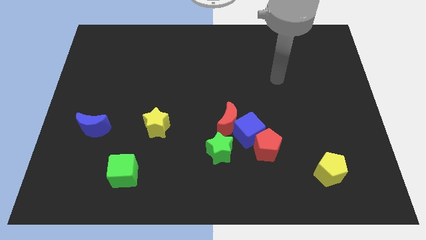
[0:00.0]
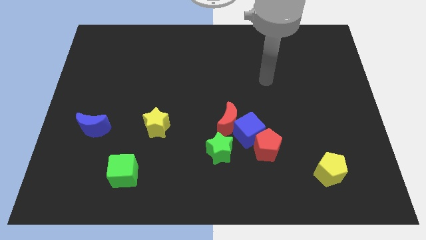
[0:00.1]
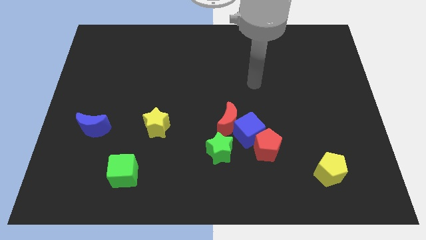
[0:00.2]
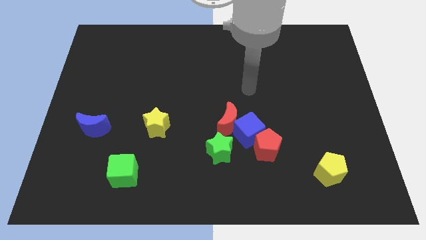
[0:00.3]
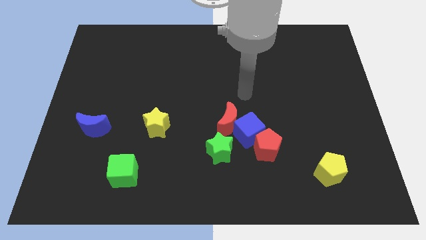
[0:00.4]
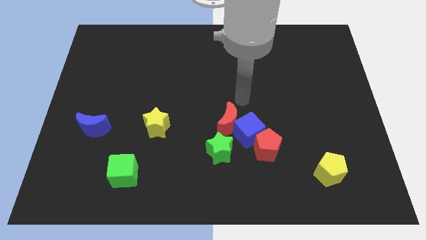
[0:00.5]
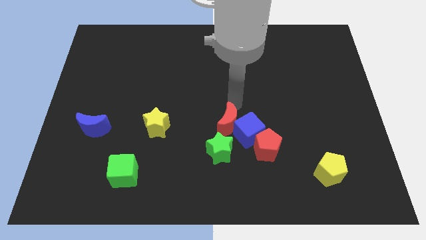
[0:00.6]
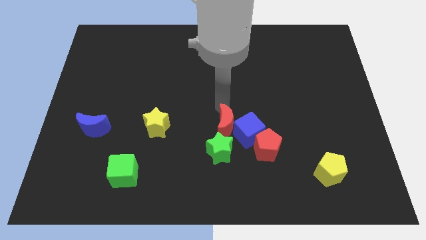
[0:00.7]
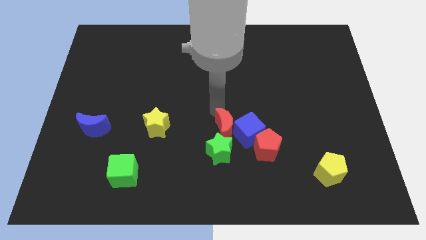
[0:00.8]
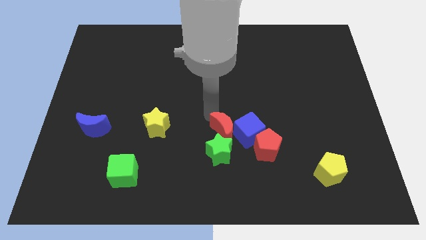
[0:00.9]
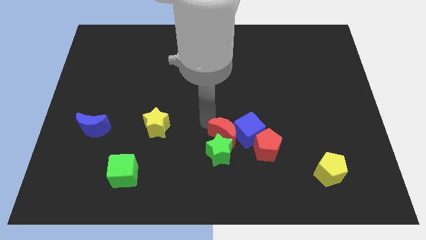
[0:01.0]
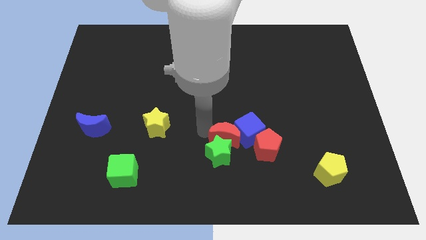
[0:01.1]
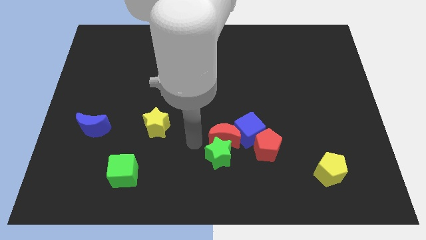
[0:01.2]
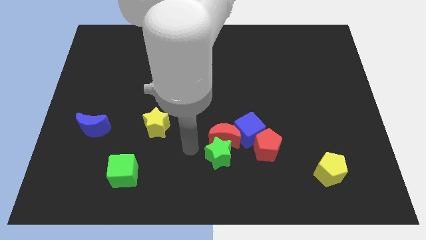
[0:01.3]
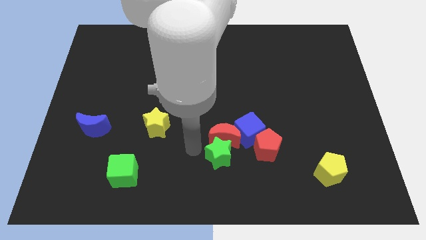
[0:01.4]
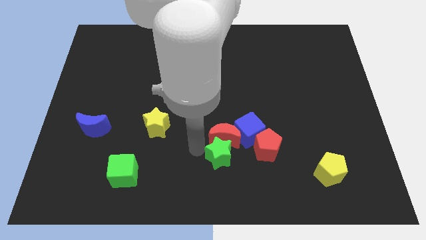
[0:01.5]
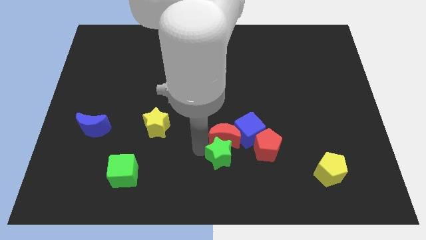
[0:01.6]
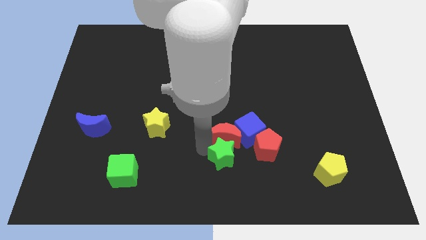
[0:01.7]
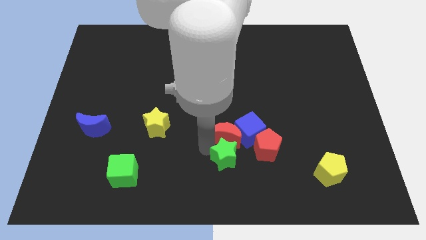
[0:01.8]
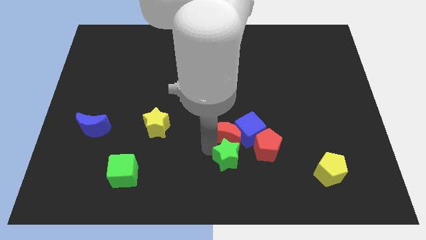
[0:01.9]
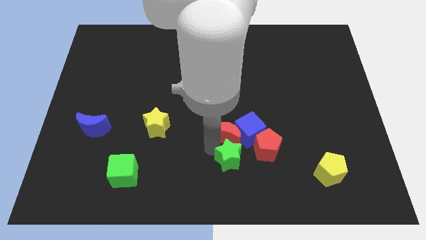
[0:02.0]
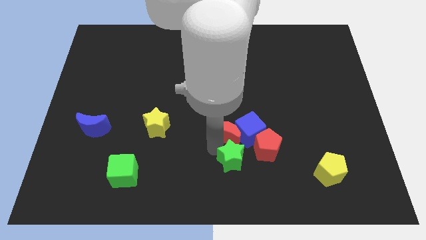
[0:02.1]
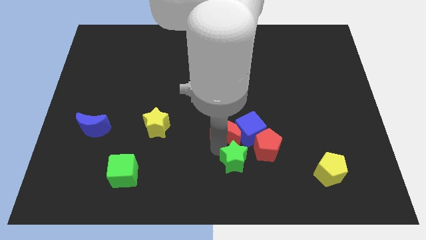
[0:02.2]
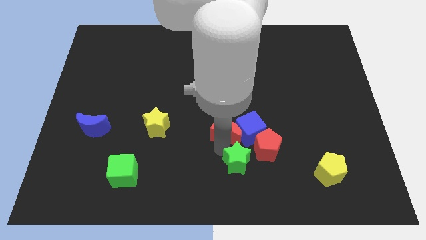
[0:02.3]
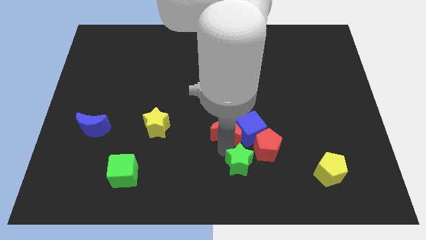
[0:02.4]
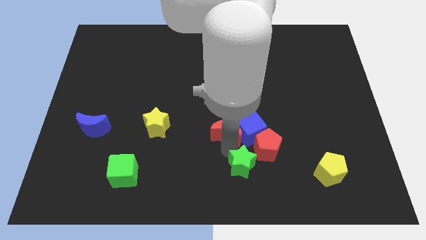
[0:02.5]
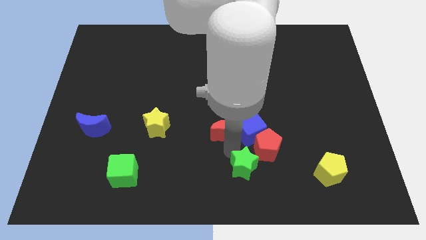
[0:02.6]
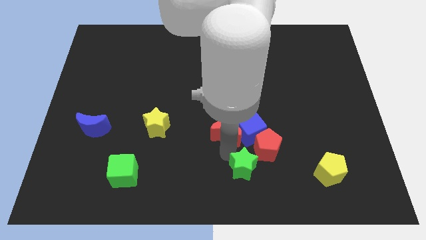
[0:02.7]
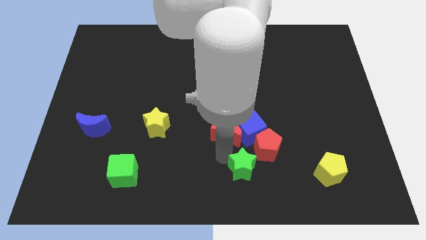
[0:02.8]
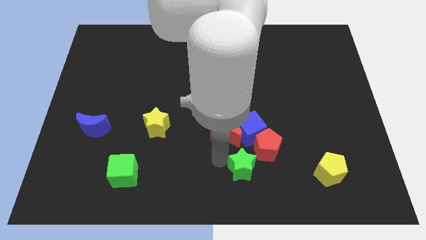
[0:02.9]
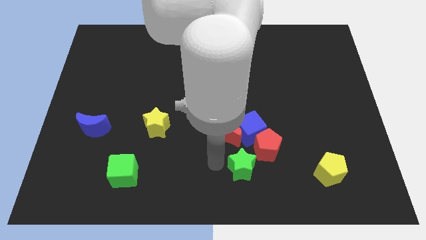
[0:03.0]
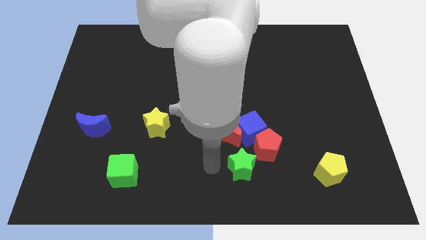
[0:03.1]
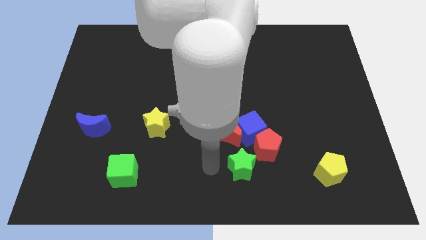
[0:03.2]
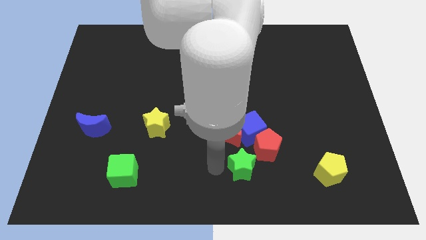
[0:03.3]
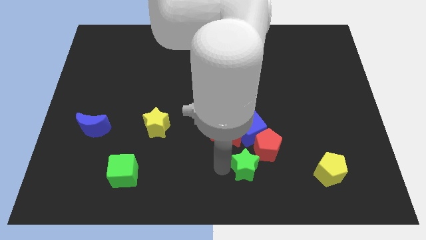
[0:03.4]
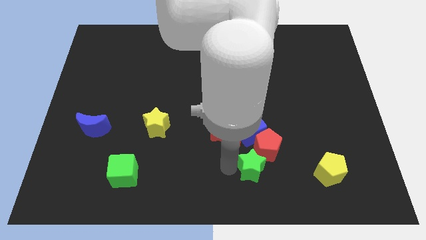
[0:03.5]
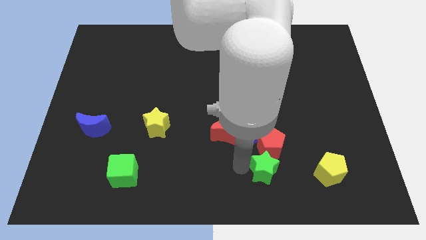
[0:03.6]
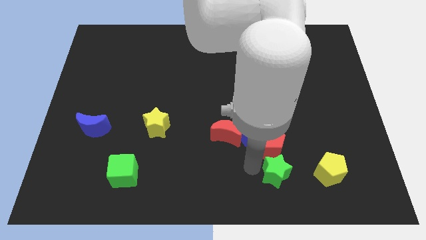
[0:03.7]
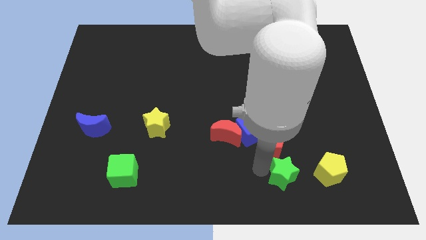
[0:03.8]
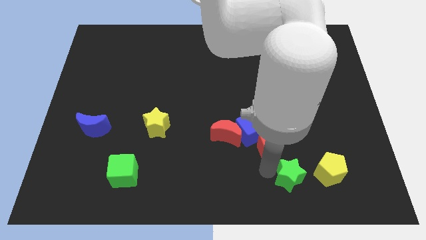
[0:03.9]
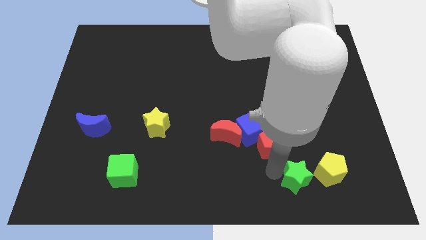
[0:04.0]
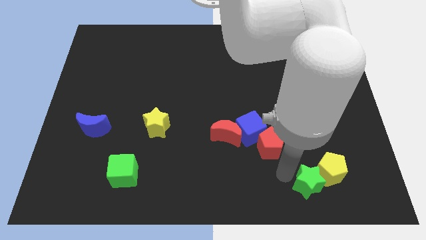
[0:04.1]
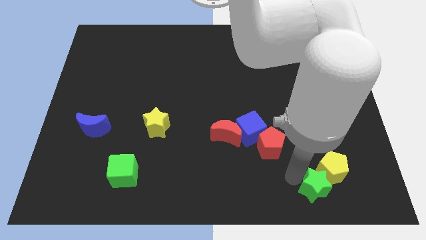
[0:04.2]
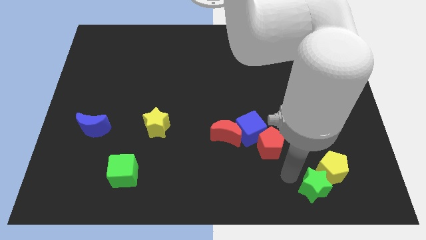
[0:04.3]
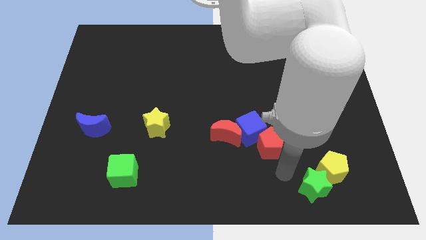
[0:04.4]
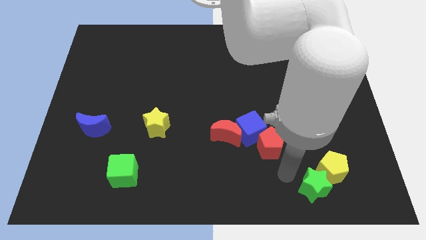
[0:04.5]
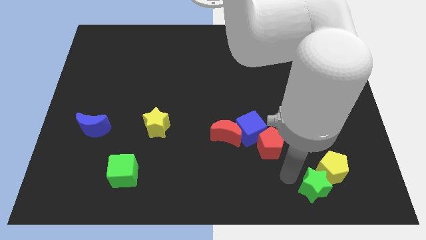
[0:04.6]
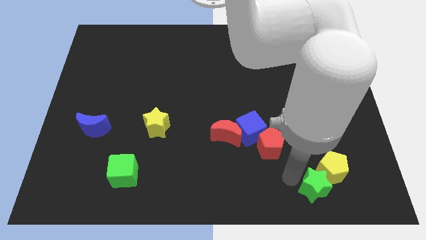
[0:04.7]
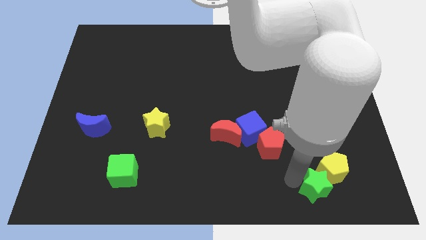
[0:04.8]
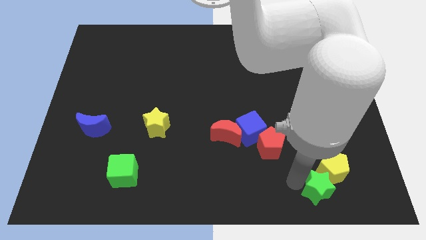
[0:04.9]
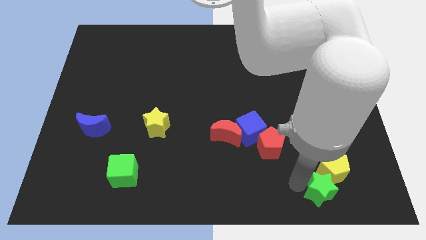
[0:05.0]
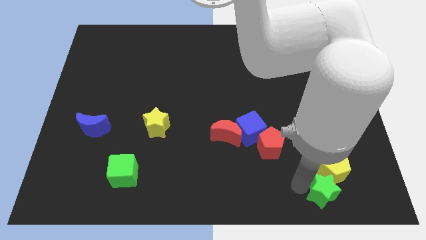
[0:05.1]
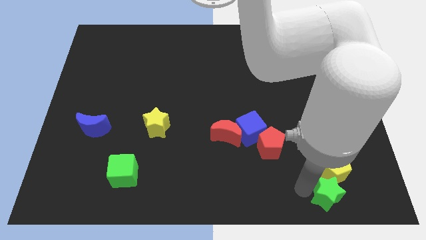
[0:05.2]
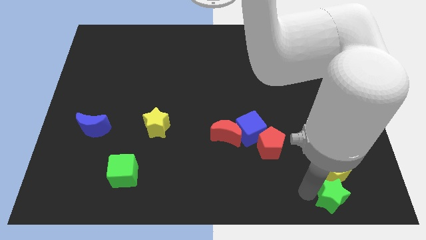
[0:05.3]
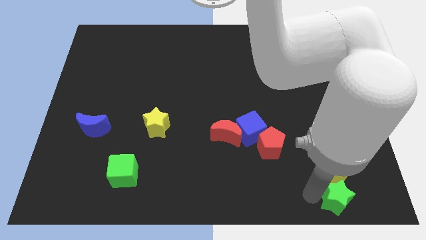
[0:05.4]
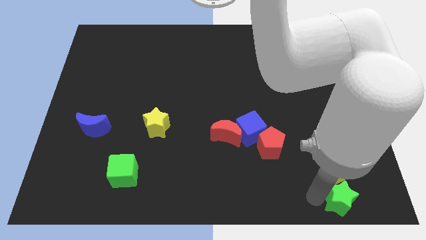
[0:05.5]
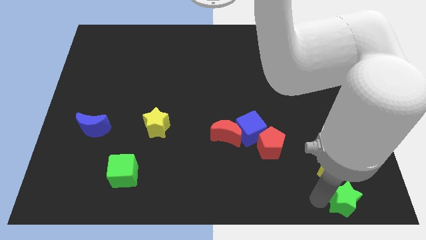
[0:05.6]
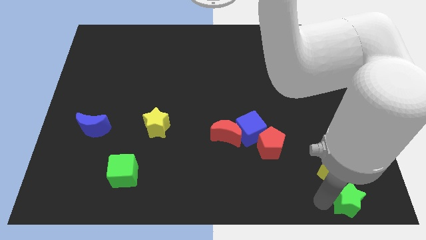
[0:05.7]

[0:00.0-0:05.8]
move the green star to the bottom right of the board
